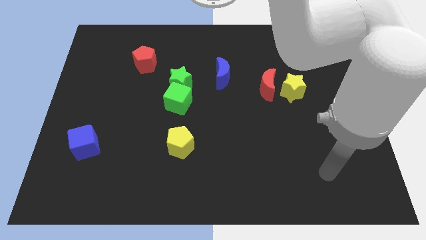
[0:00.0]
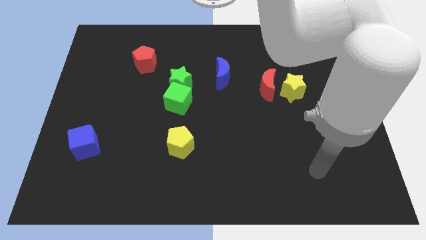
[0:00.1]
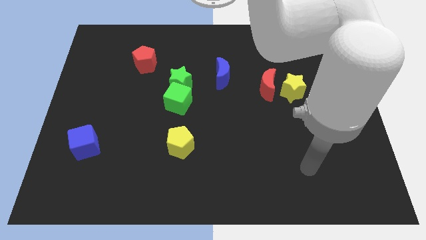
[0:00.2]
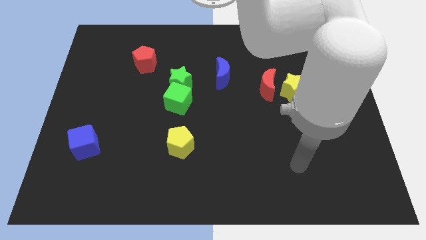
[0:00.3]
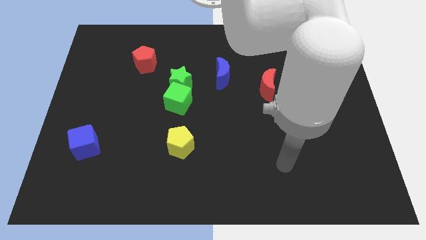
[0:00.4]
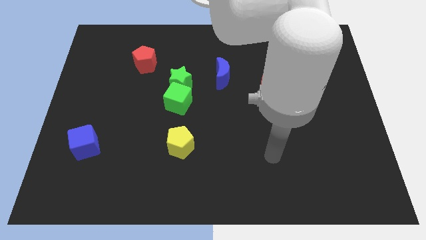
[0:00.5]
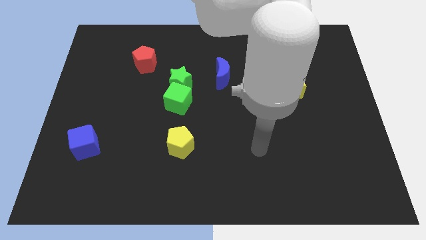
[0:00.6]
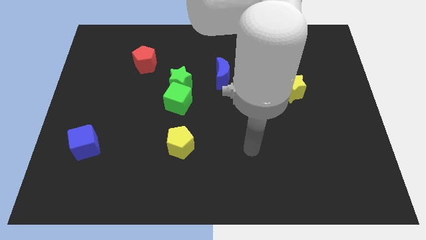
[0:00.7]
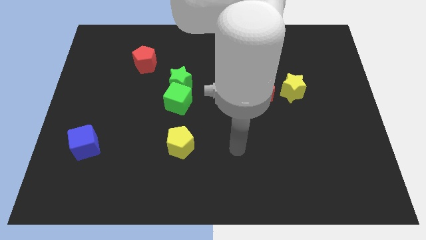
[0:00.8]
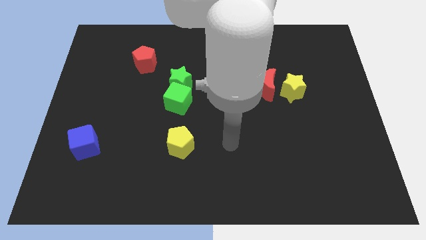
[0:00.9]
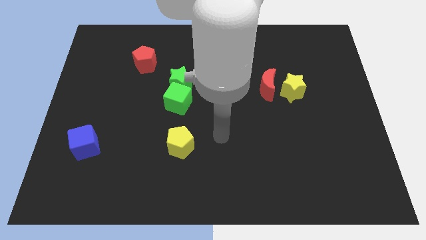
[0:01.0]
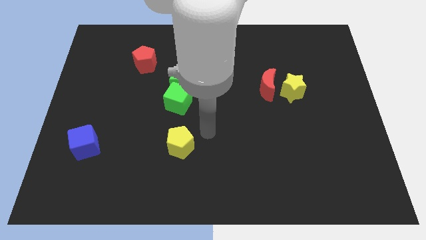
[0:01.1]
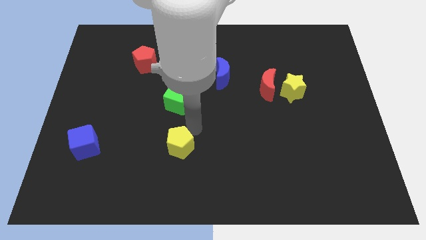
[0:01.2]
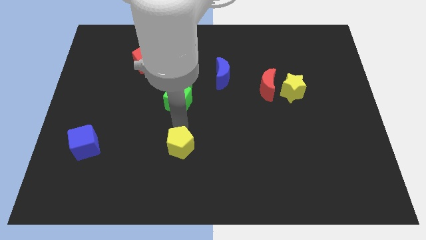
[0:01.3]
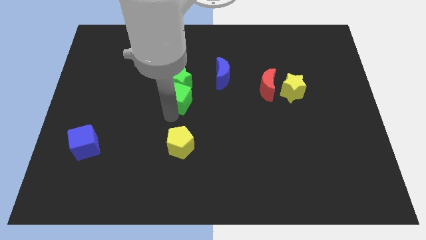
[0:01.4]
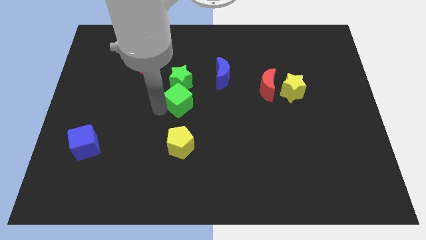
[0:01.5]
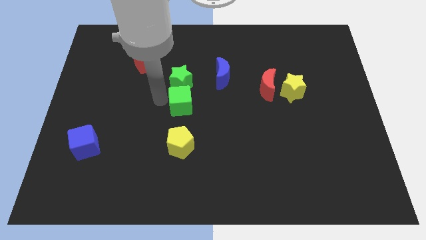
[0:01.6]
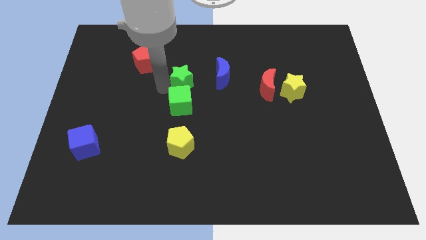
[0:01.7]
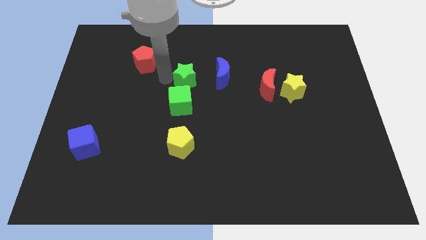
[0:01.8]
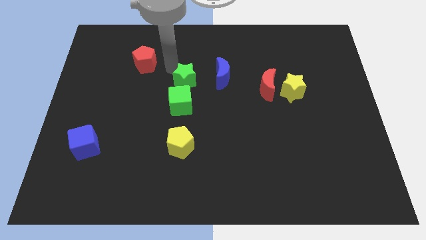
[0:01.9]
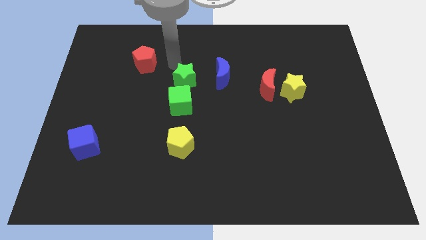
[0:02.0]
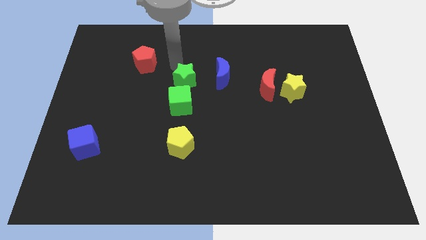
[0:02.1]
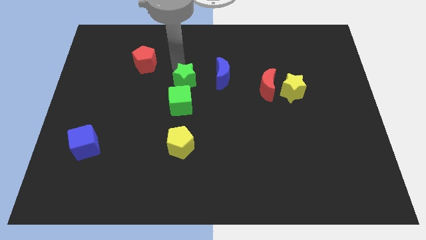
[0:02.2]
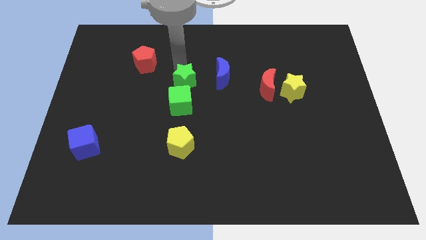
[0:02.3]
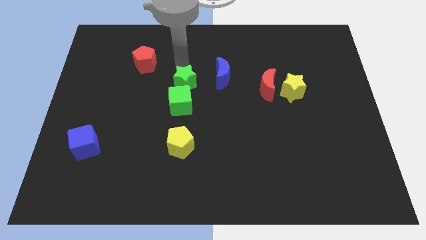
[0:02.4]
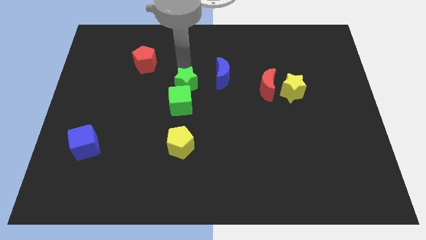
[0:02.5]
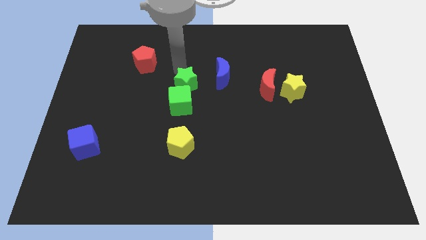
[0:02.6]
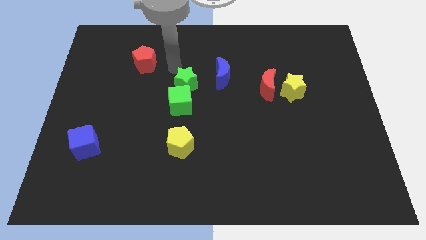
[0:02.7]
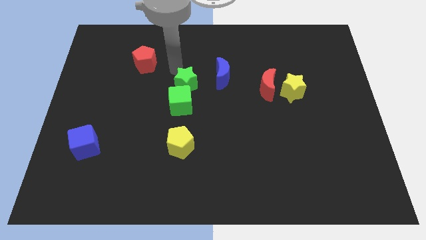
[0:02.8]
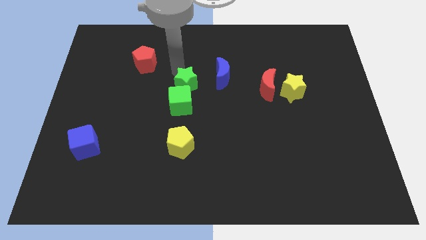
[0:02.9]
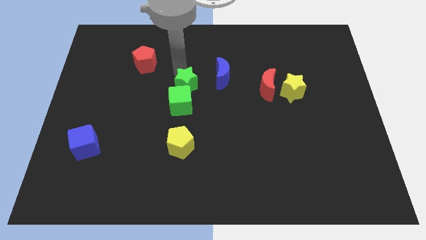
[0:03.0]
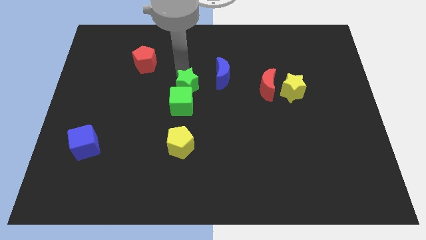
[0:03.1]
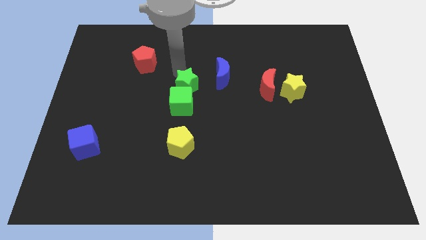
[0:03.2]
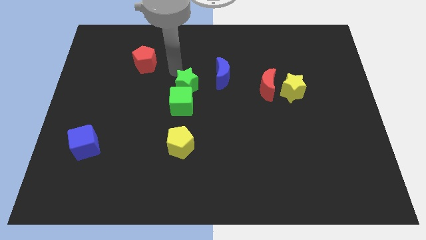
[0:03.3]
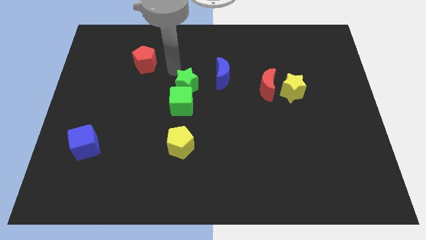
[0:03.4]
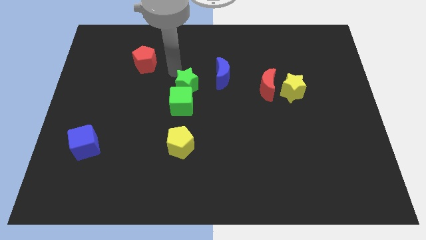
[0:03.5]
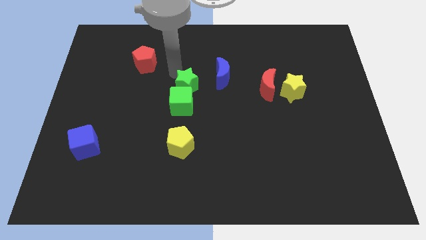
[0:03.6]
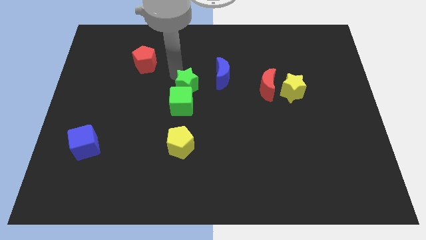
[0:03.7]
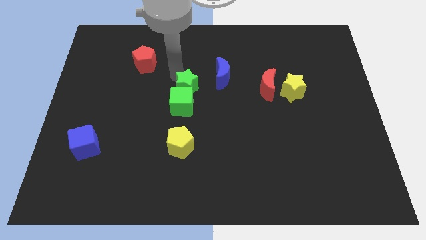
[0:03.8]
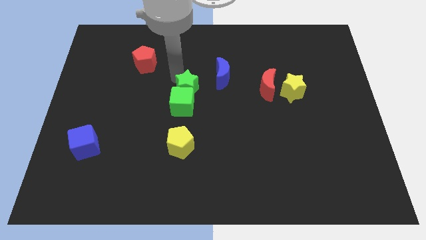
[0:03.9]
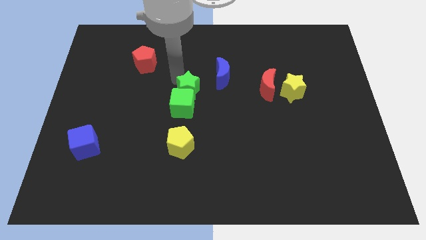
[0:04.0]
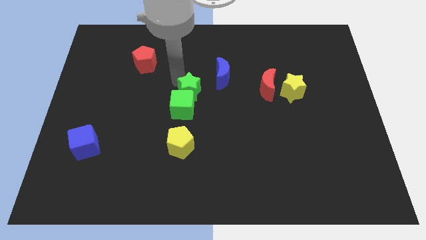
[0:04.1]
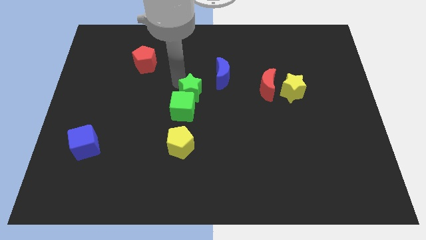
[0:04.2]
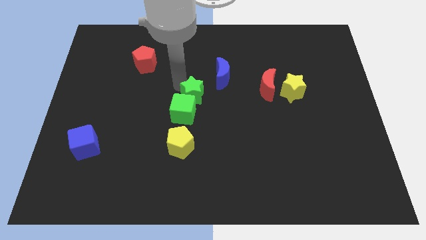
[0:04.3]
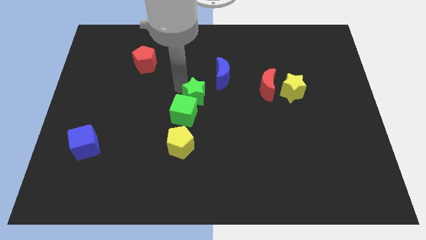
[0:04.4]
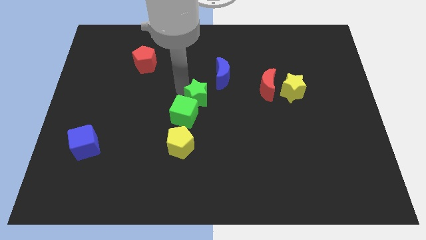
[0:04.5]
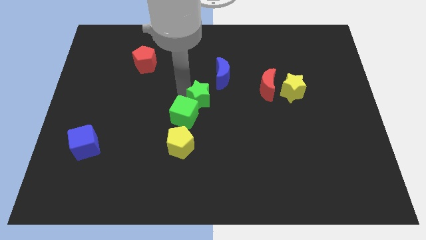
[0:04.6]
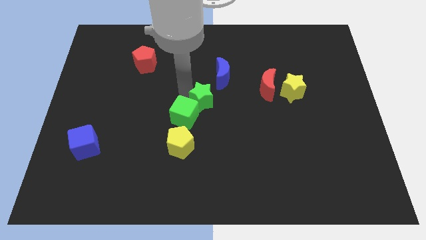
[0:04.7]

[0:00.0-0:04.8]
move the green star downwards and then to the right a little

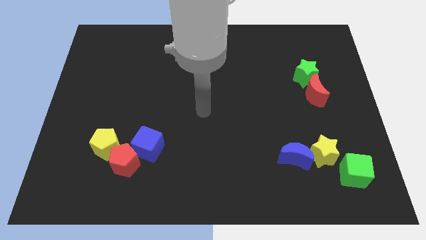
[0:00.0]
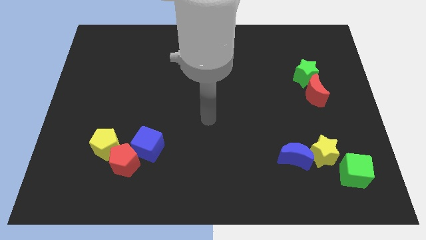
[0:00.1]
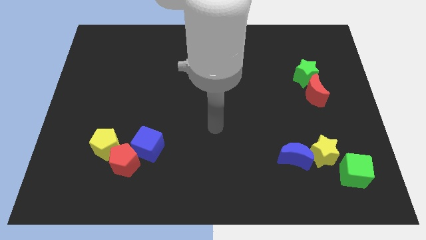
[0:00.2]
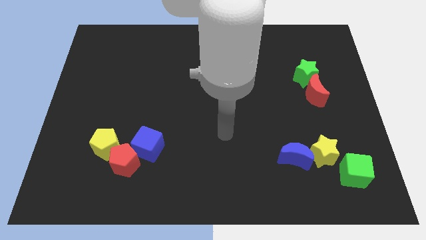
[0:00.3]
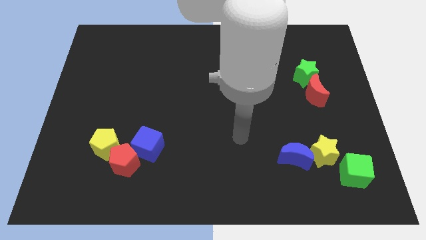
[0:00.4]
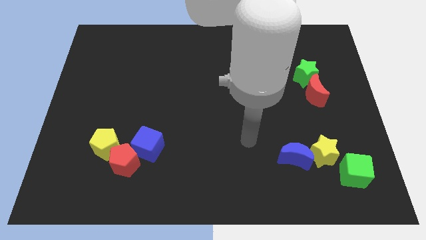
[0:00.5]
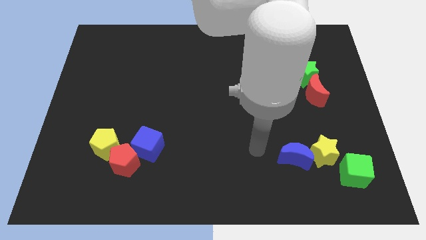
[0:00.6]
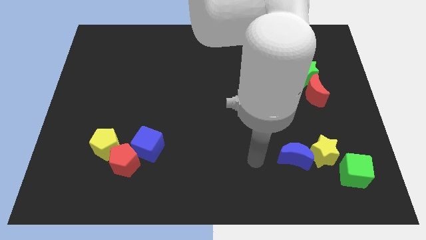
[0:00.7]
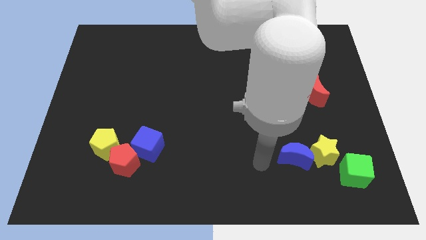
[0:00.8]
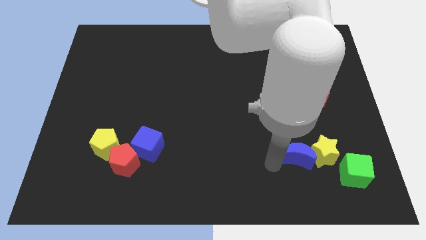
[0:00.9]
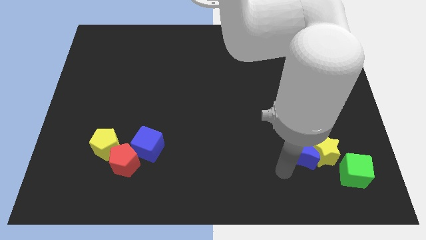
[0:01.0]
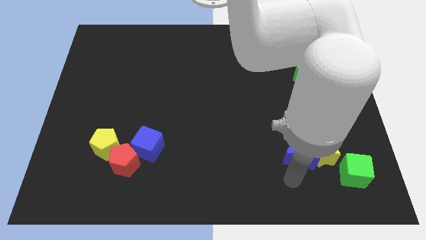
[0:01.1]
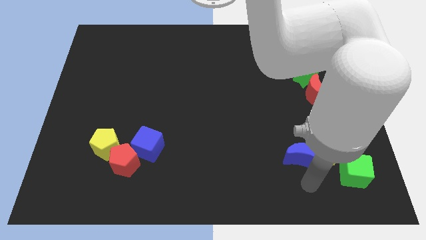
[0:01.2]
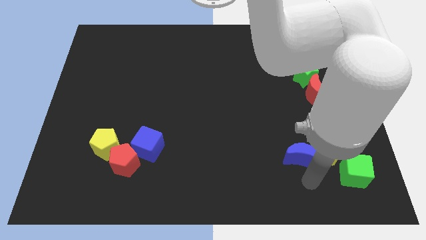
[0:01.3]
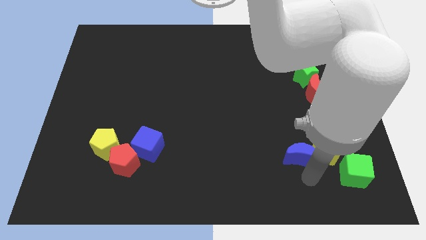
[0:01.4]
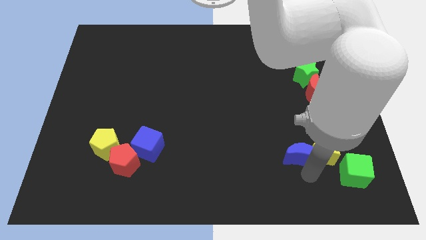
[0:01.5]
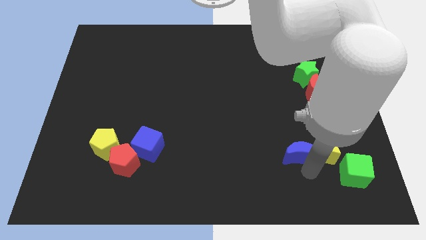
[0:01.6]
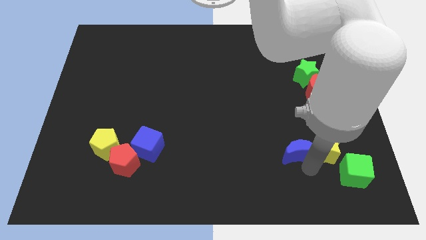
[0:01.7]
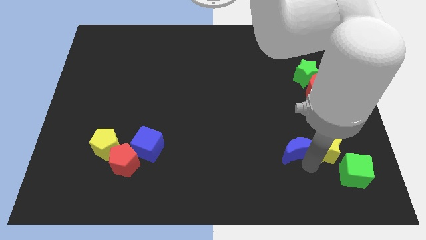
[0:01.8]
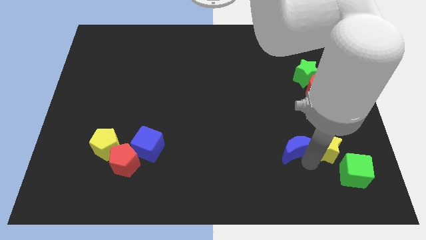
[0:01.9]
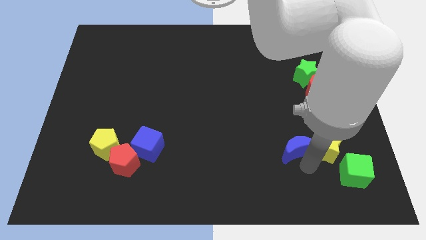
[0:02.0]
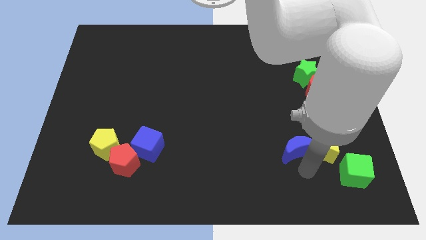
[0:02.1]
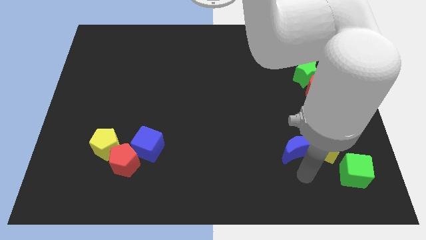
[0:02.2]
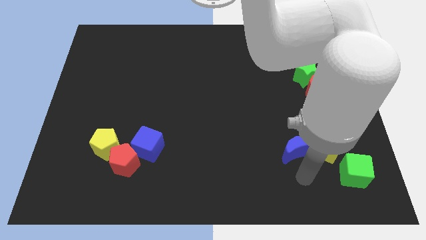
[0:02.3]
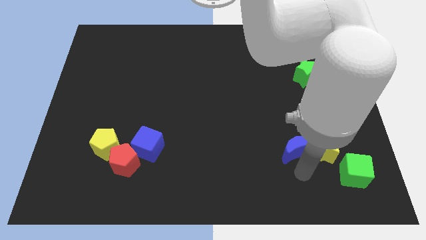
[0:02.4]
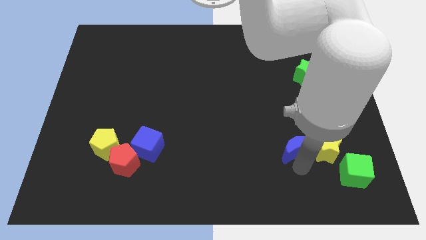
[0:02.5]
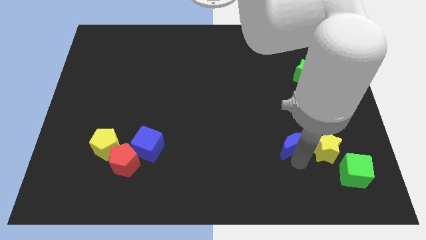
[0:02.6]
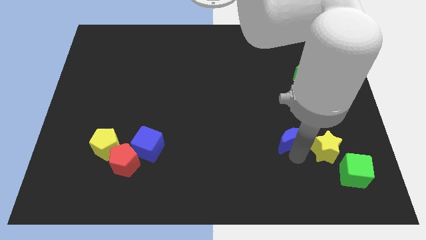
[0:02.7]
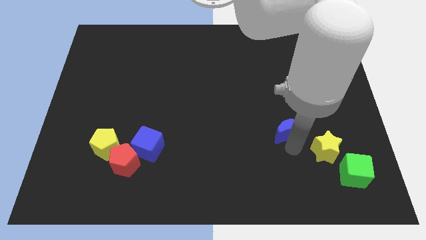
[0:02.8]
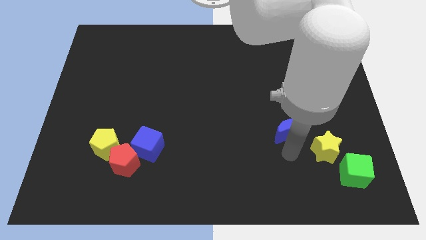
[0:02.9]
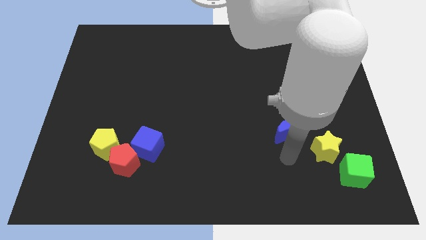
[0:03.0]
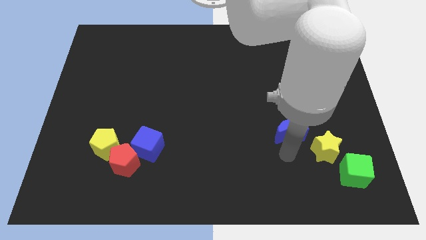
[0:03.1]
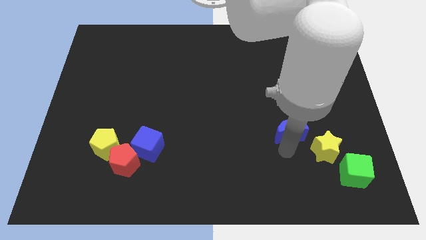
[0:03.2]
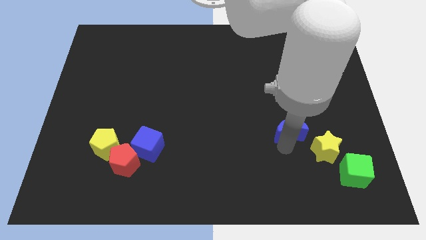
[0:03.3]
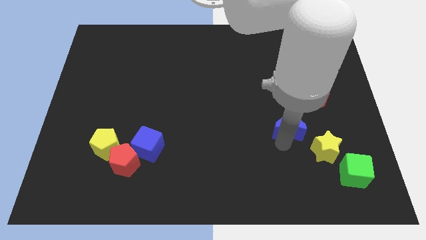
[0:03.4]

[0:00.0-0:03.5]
move the blue moon a bit upwards
